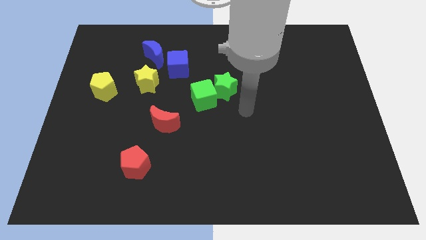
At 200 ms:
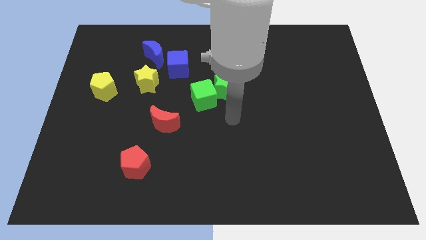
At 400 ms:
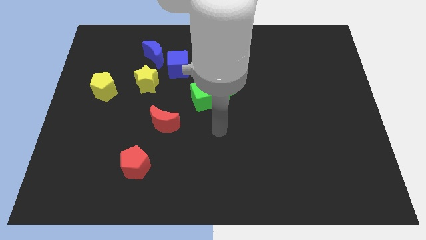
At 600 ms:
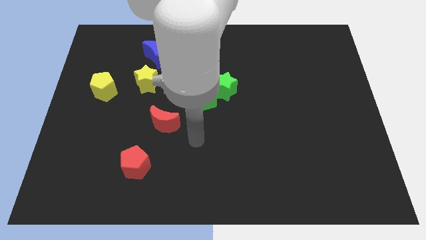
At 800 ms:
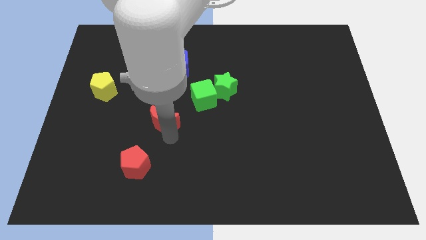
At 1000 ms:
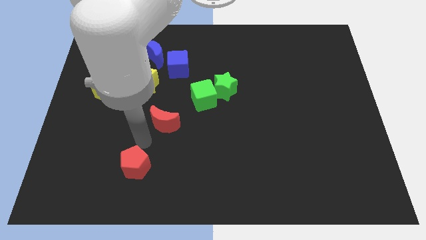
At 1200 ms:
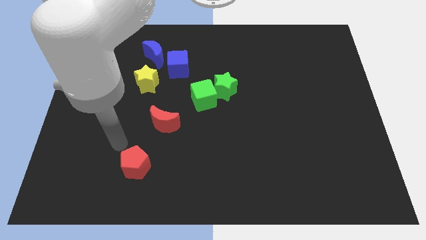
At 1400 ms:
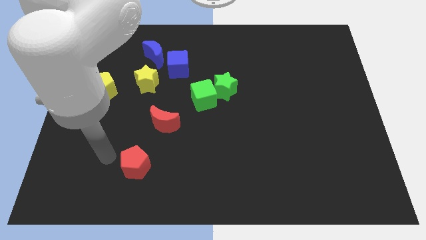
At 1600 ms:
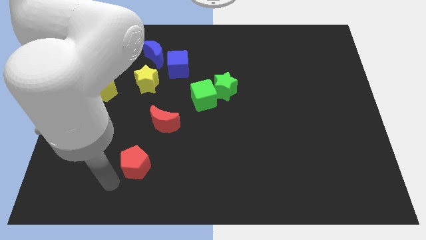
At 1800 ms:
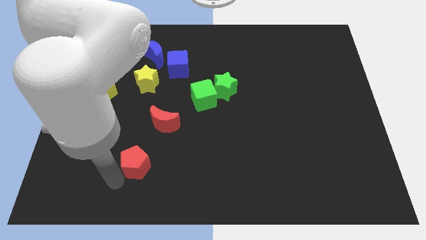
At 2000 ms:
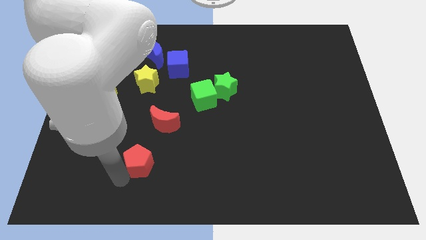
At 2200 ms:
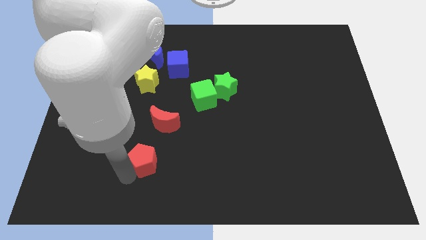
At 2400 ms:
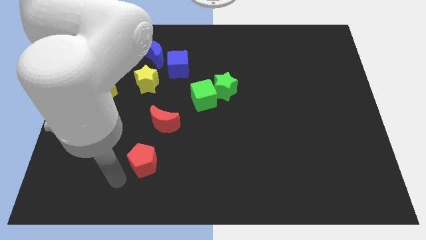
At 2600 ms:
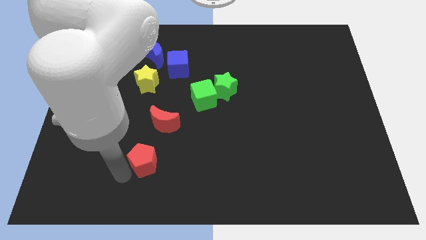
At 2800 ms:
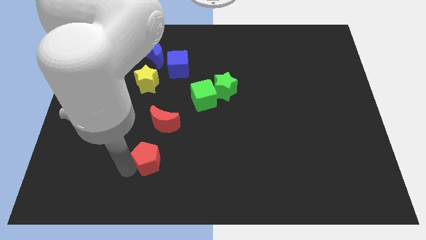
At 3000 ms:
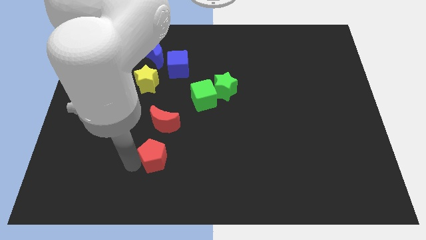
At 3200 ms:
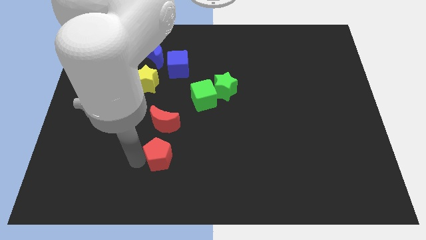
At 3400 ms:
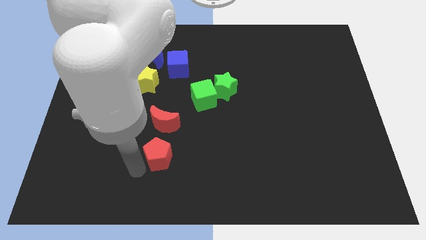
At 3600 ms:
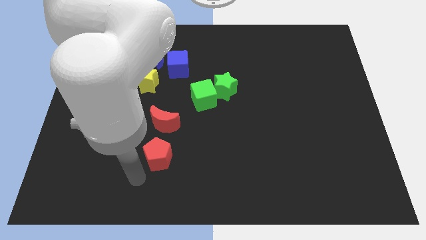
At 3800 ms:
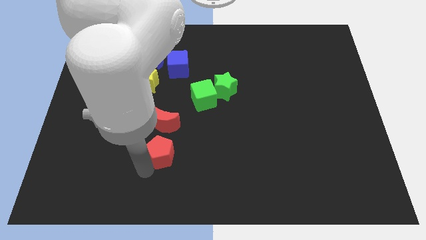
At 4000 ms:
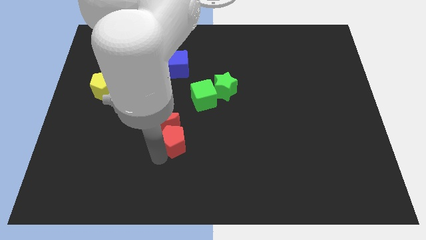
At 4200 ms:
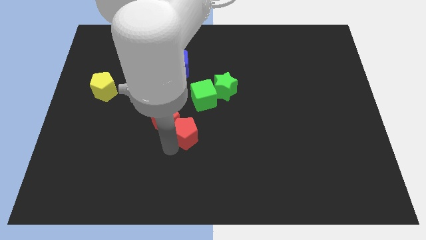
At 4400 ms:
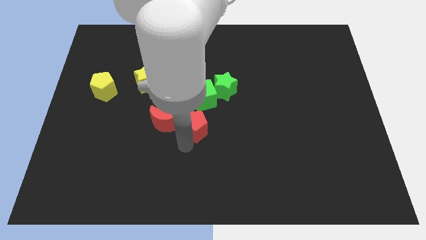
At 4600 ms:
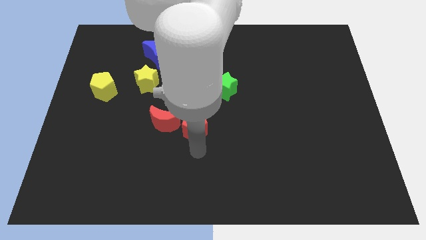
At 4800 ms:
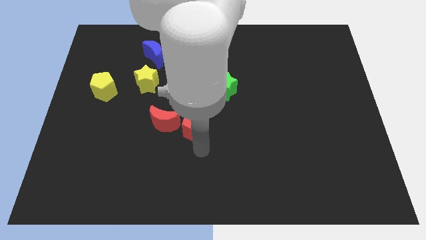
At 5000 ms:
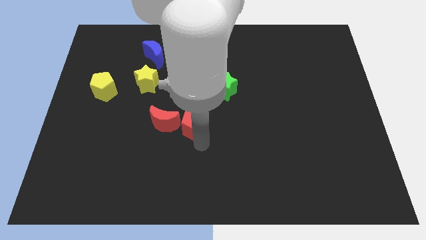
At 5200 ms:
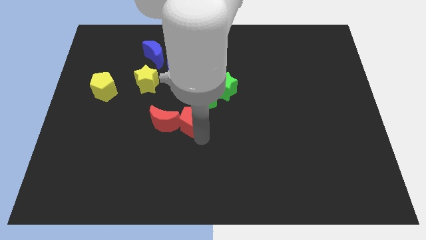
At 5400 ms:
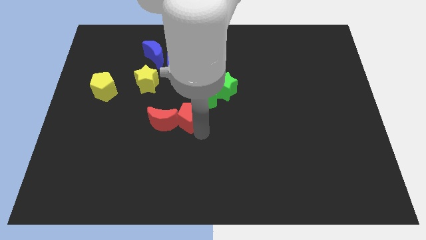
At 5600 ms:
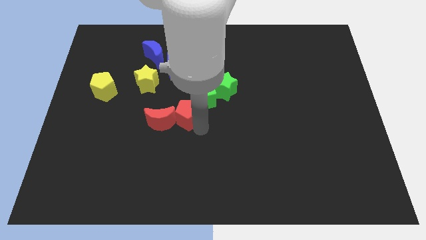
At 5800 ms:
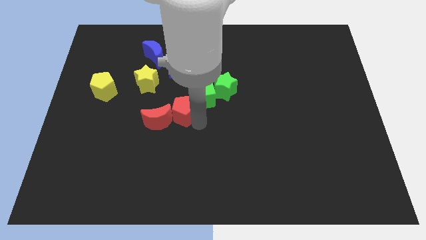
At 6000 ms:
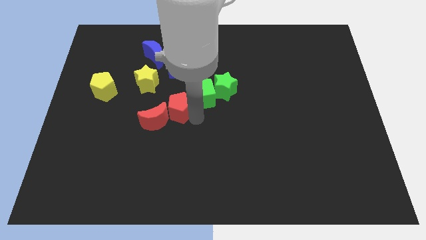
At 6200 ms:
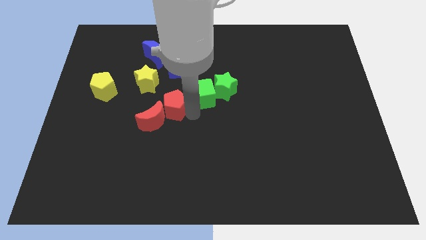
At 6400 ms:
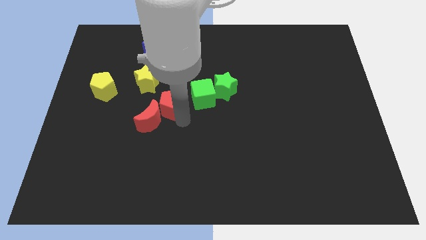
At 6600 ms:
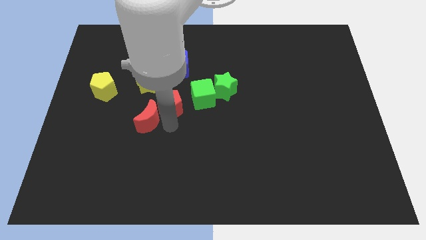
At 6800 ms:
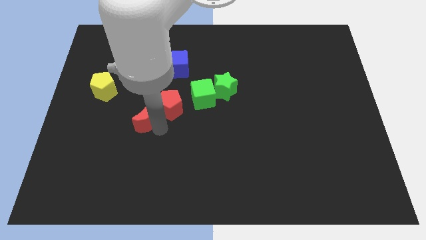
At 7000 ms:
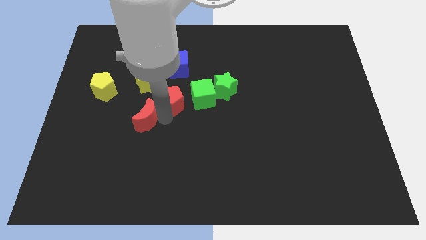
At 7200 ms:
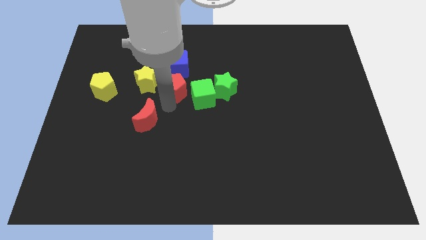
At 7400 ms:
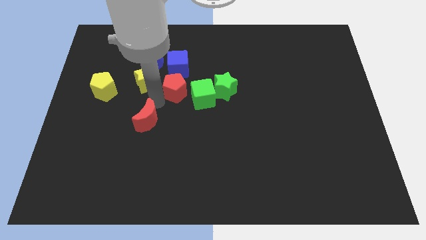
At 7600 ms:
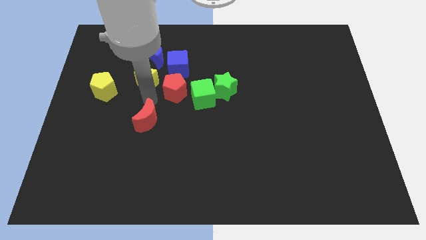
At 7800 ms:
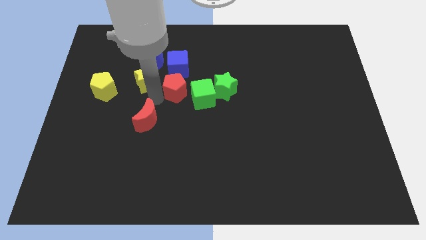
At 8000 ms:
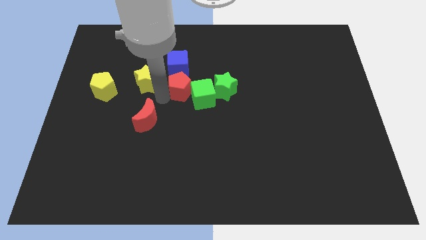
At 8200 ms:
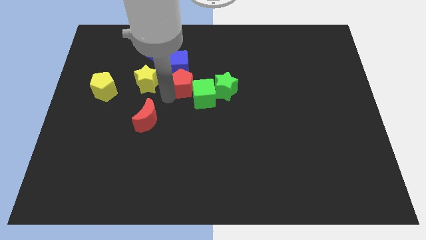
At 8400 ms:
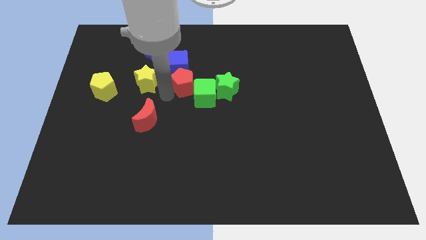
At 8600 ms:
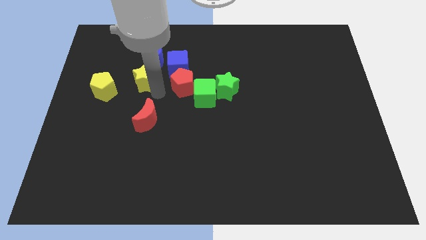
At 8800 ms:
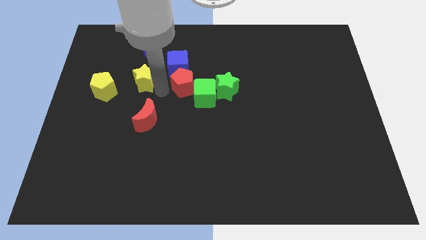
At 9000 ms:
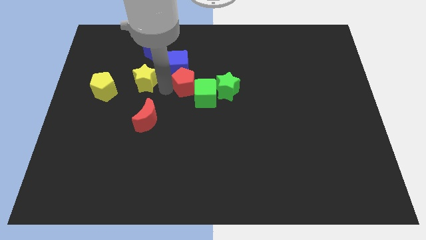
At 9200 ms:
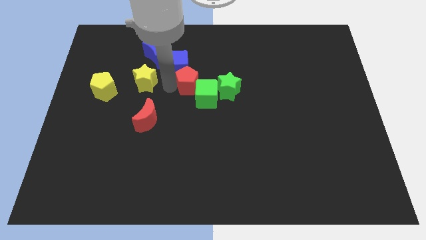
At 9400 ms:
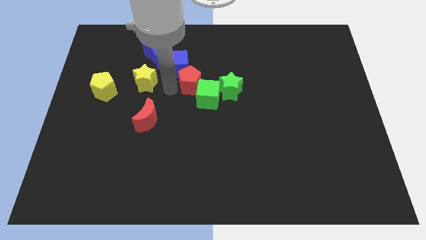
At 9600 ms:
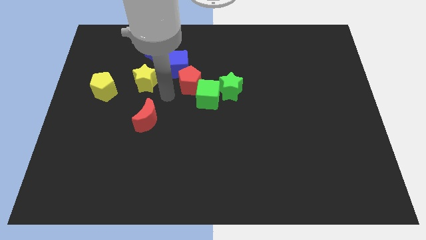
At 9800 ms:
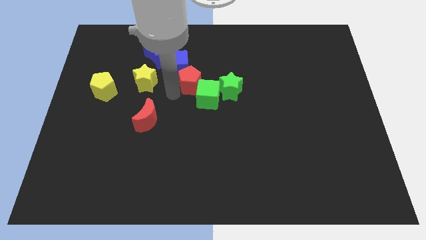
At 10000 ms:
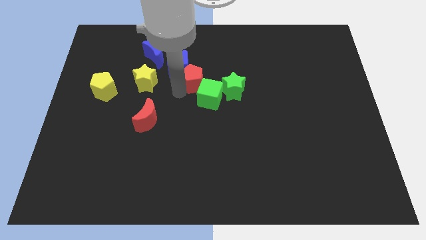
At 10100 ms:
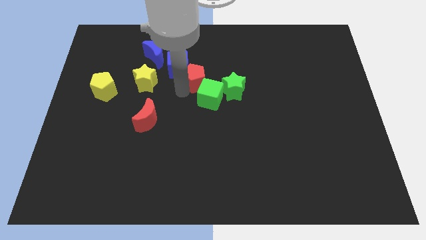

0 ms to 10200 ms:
put the red pentagon diagonally up and to the left of the green star

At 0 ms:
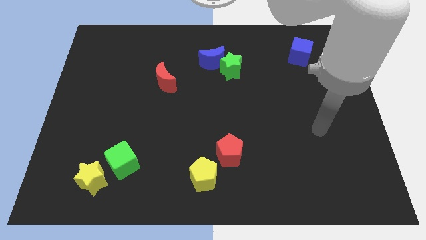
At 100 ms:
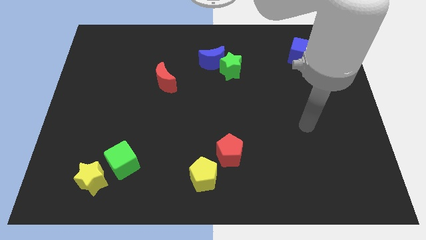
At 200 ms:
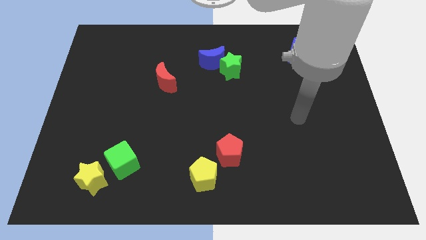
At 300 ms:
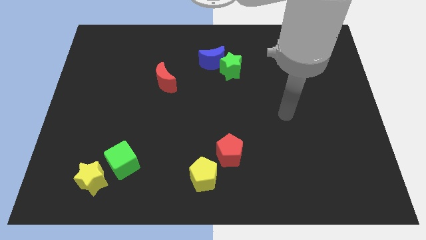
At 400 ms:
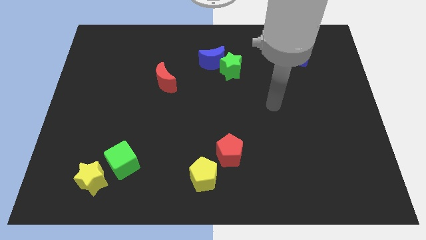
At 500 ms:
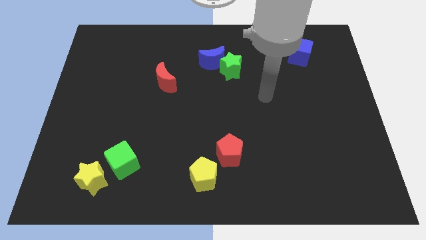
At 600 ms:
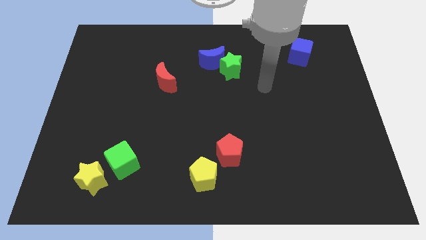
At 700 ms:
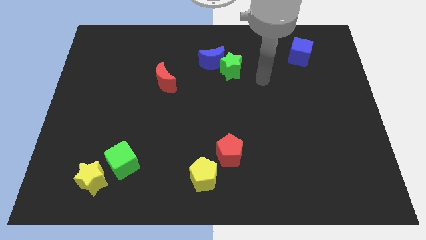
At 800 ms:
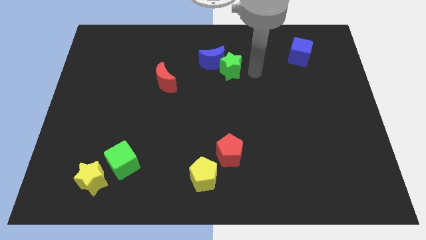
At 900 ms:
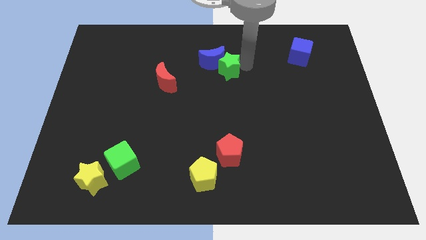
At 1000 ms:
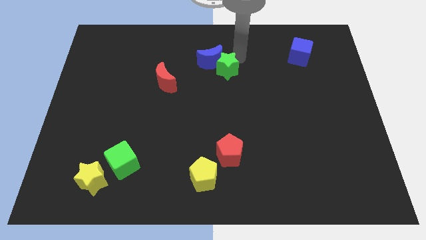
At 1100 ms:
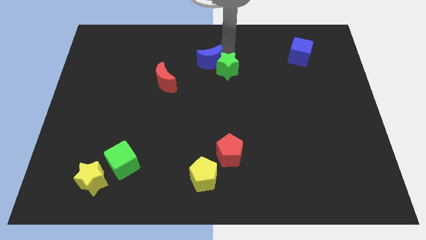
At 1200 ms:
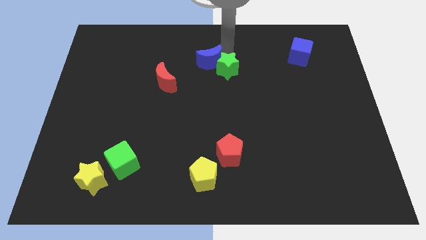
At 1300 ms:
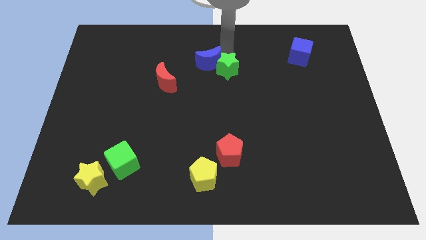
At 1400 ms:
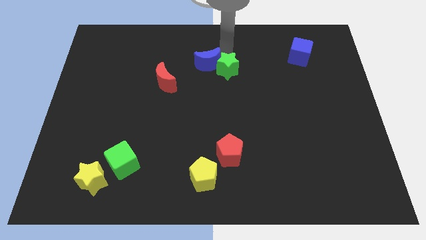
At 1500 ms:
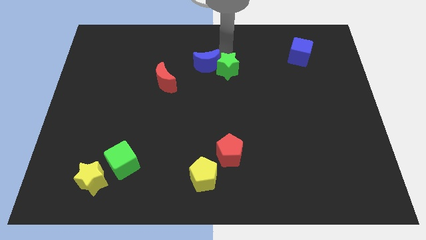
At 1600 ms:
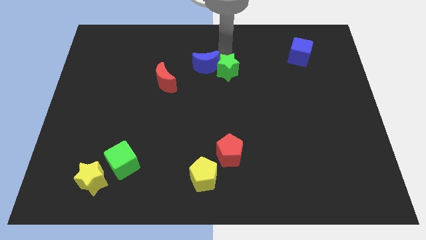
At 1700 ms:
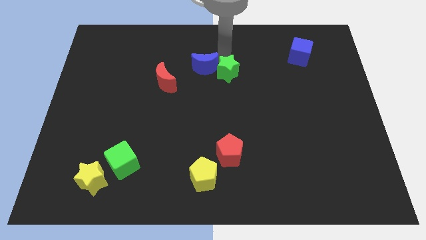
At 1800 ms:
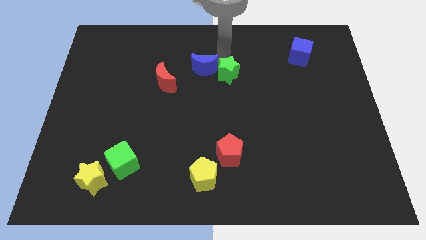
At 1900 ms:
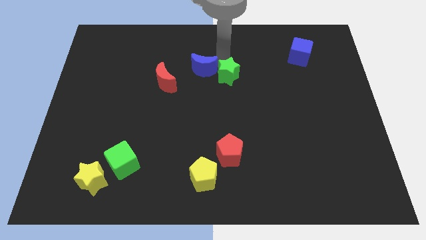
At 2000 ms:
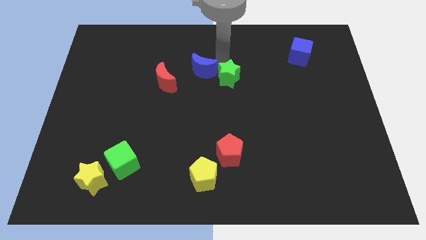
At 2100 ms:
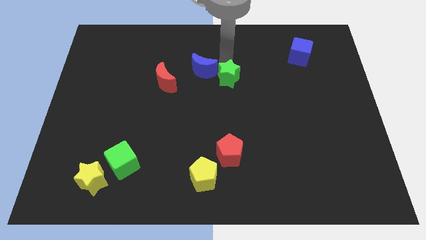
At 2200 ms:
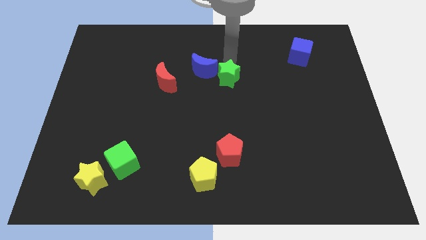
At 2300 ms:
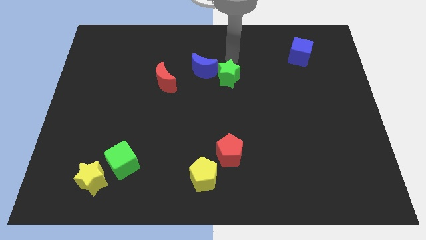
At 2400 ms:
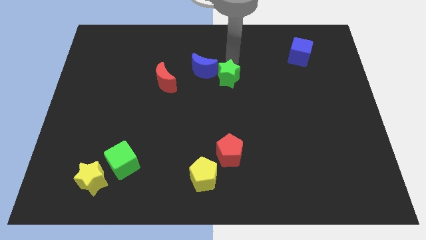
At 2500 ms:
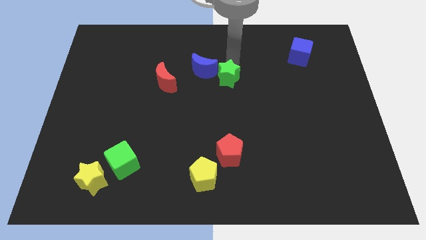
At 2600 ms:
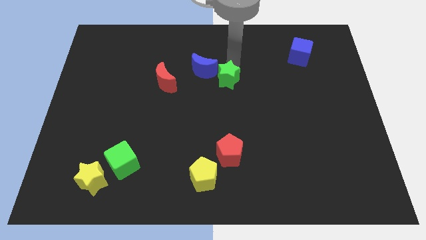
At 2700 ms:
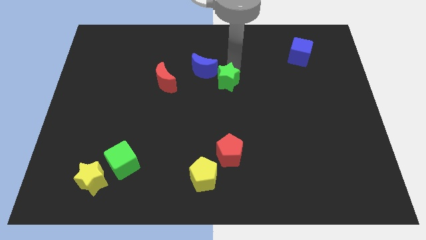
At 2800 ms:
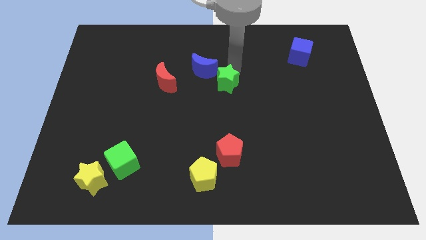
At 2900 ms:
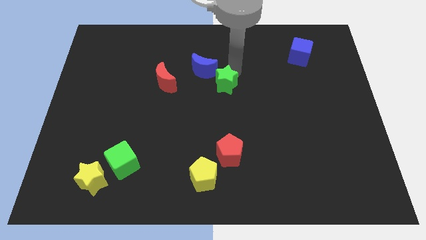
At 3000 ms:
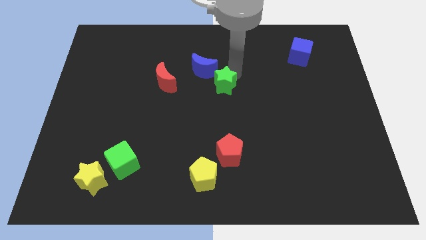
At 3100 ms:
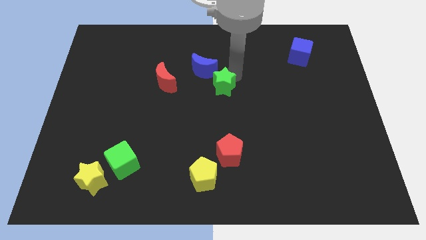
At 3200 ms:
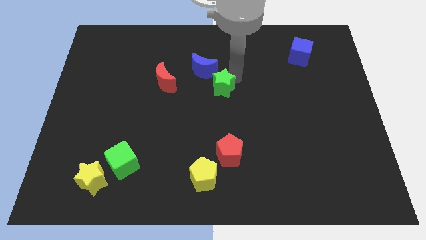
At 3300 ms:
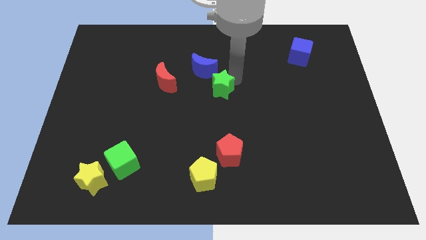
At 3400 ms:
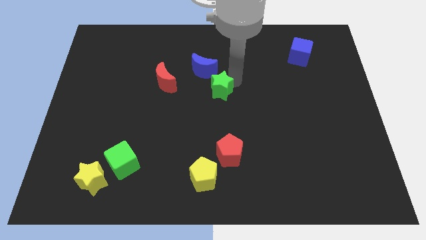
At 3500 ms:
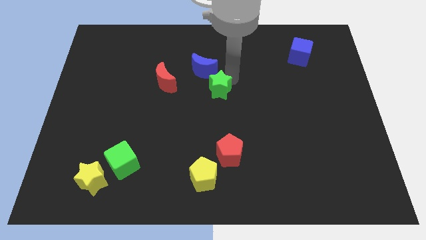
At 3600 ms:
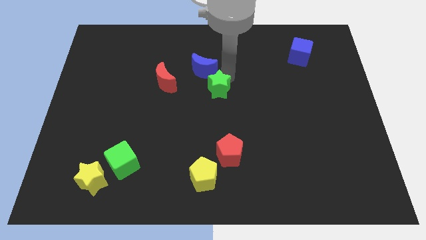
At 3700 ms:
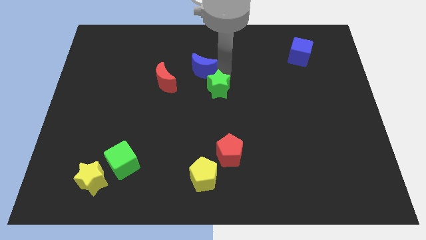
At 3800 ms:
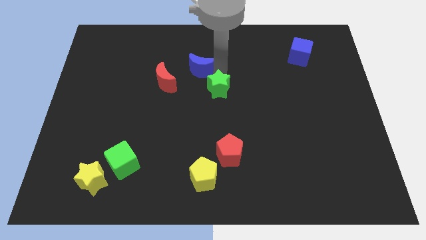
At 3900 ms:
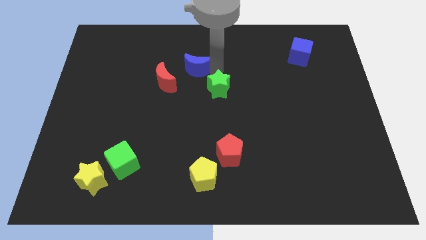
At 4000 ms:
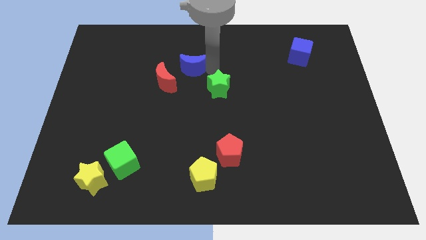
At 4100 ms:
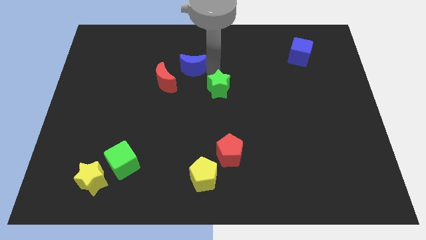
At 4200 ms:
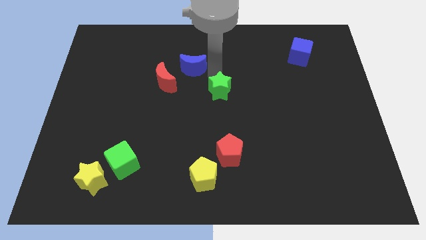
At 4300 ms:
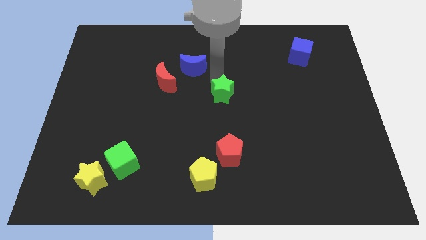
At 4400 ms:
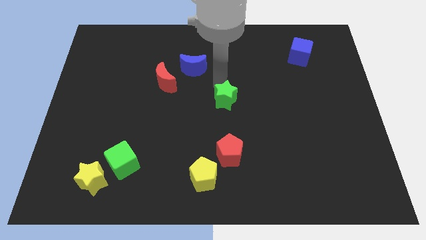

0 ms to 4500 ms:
put the green star to the top side of the red pentagon
